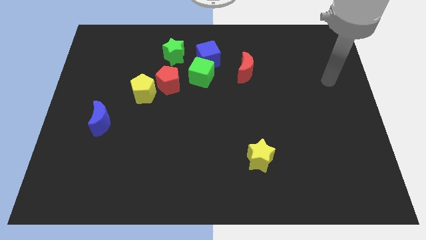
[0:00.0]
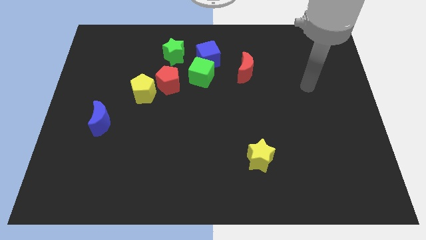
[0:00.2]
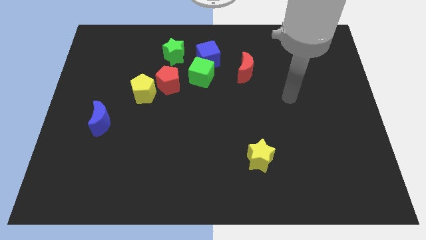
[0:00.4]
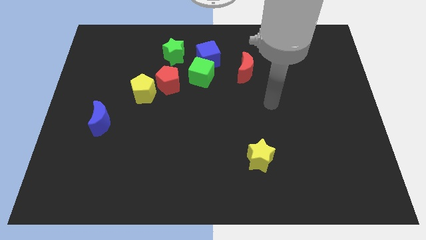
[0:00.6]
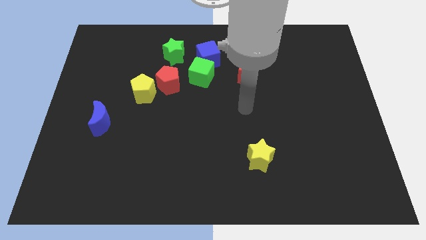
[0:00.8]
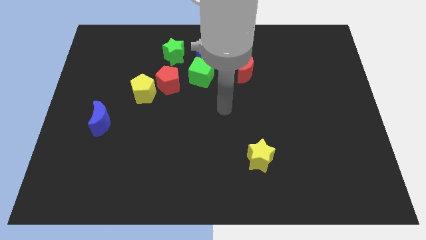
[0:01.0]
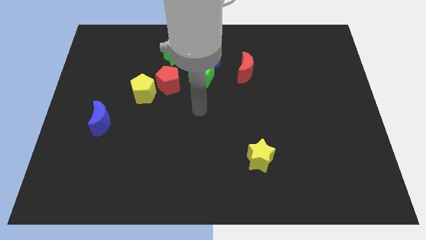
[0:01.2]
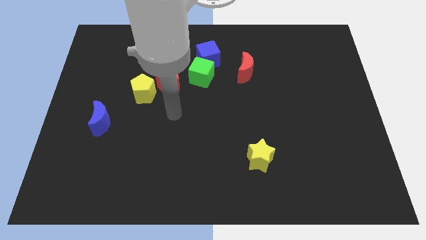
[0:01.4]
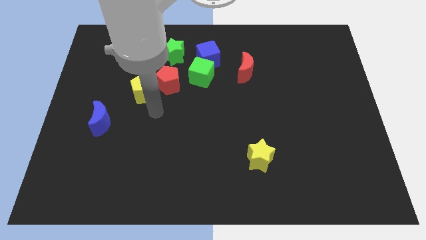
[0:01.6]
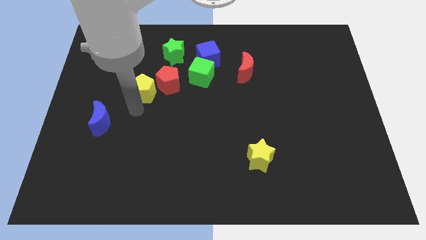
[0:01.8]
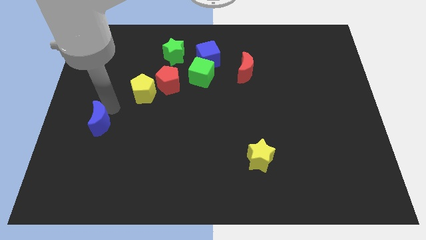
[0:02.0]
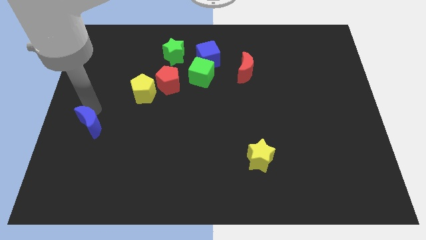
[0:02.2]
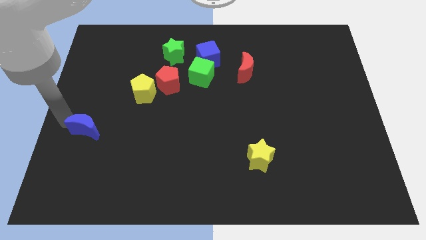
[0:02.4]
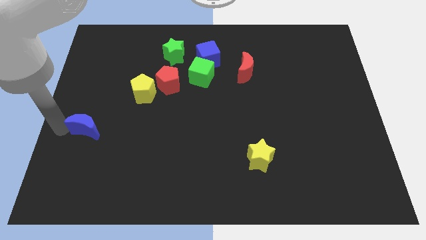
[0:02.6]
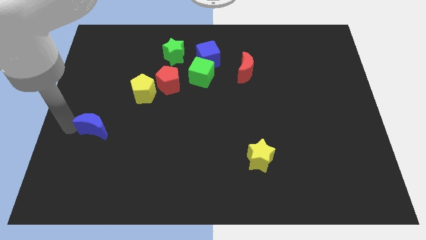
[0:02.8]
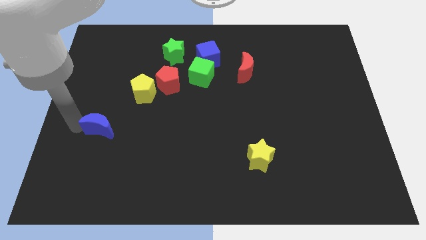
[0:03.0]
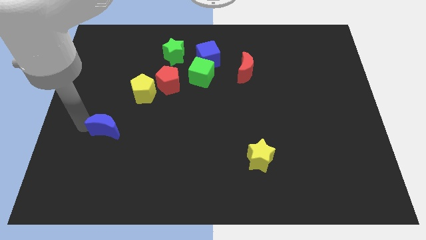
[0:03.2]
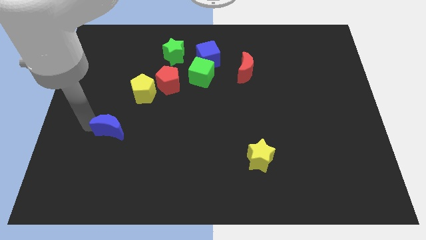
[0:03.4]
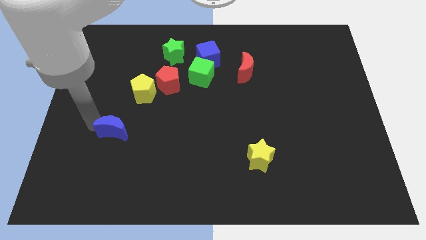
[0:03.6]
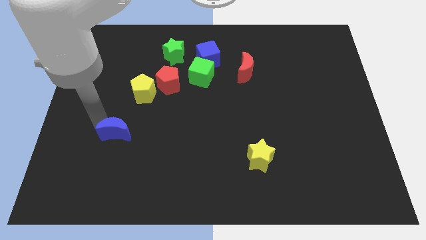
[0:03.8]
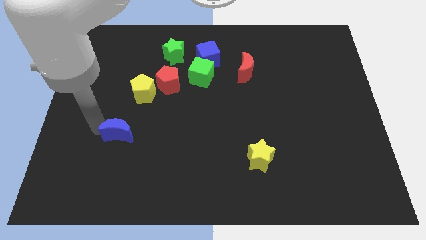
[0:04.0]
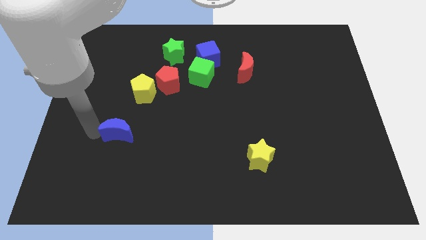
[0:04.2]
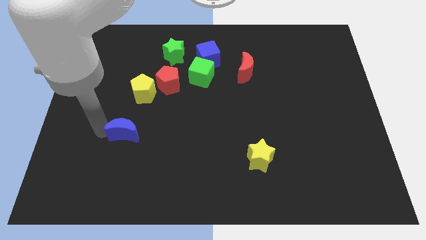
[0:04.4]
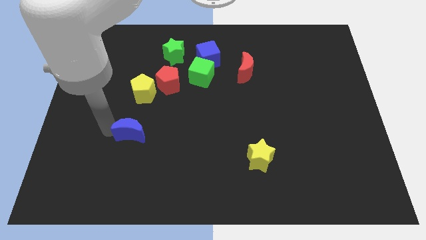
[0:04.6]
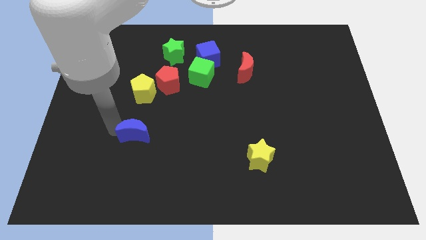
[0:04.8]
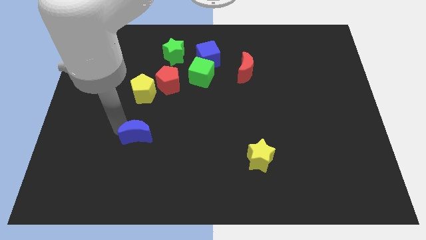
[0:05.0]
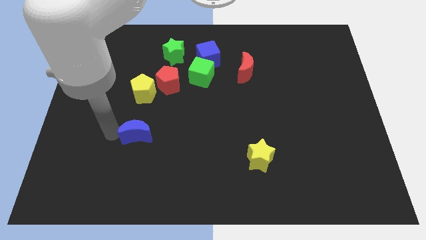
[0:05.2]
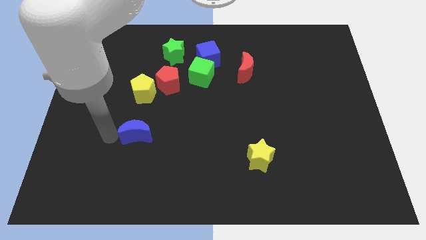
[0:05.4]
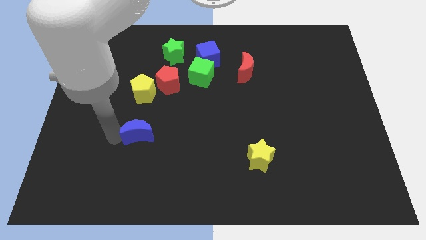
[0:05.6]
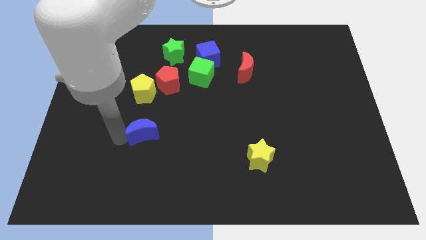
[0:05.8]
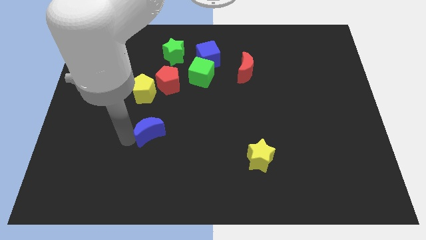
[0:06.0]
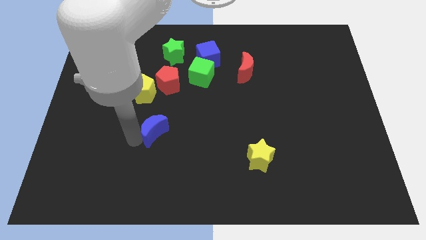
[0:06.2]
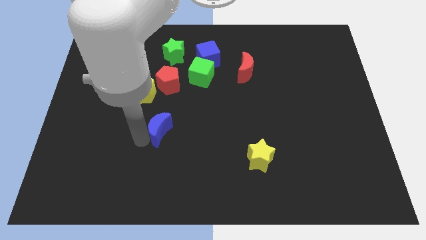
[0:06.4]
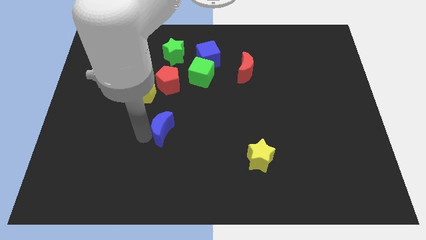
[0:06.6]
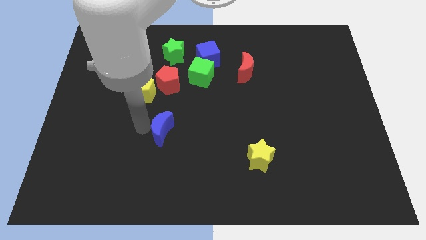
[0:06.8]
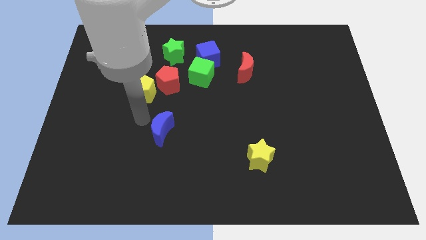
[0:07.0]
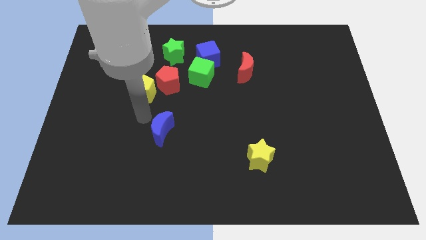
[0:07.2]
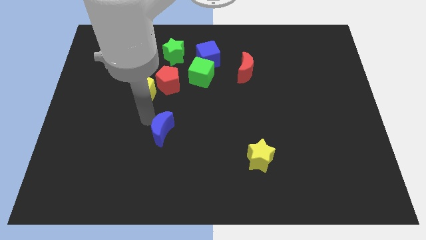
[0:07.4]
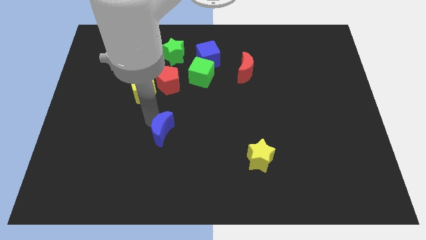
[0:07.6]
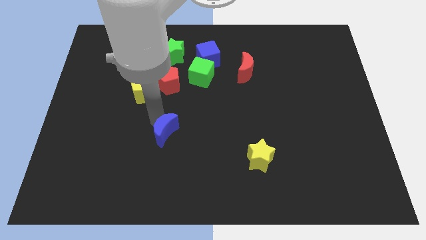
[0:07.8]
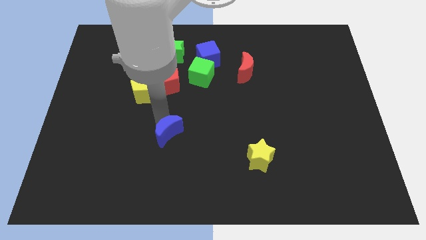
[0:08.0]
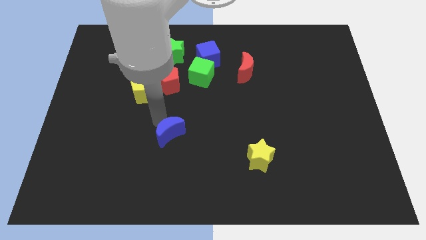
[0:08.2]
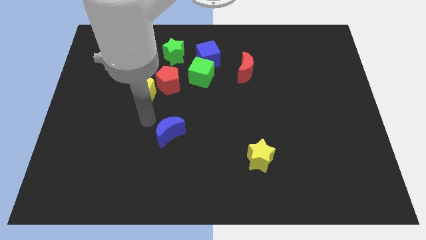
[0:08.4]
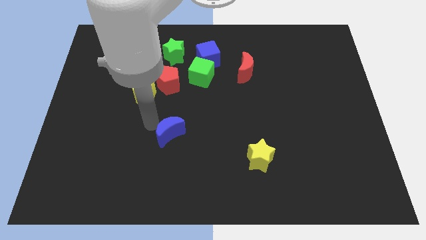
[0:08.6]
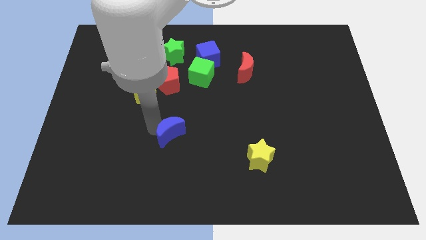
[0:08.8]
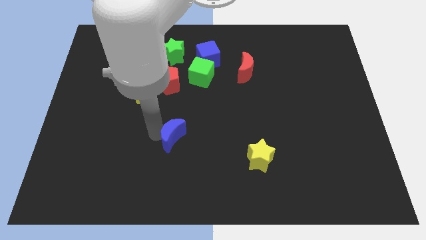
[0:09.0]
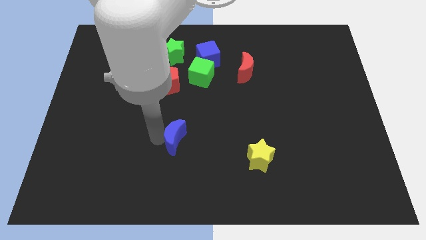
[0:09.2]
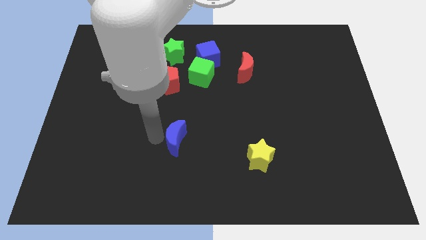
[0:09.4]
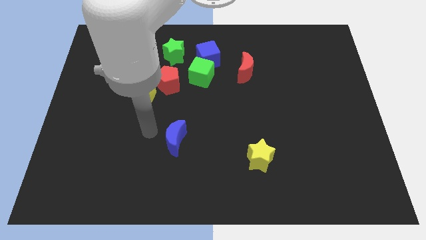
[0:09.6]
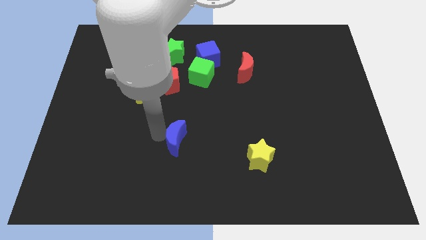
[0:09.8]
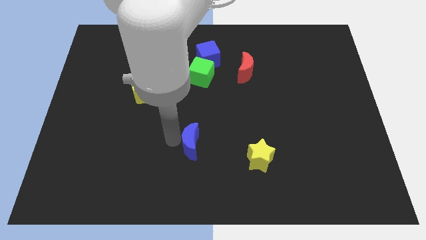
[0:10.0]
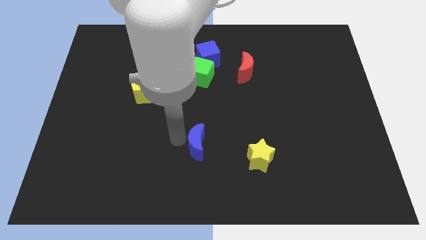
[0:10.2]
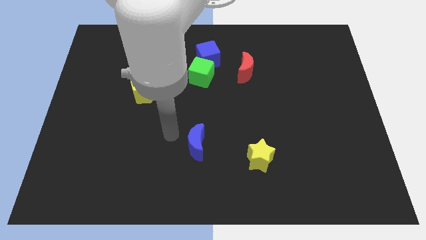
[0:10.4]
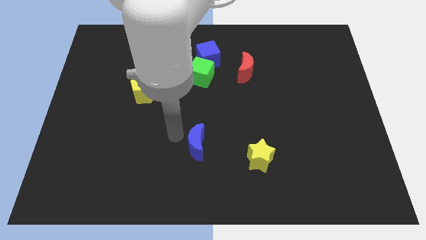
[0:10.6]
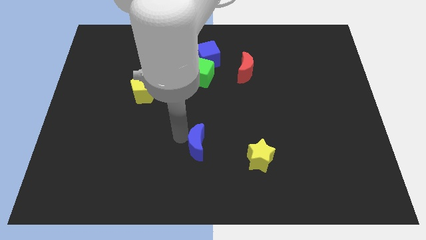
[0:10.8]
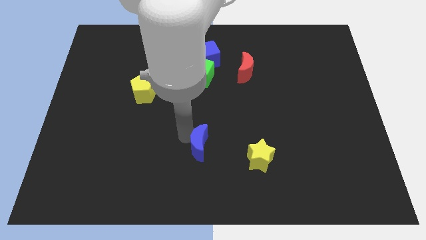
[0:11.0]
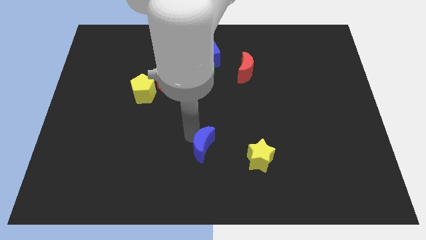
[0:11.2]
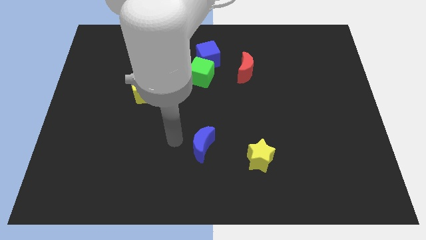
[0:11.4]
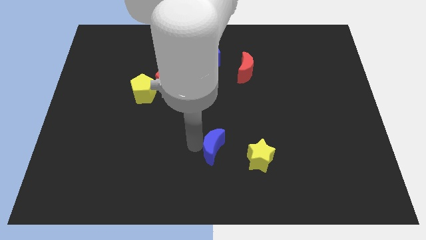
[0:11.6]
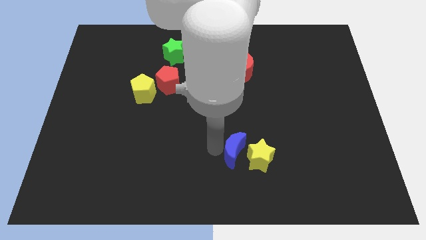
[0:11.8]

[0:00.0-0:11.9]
push the blue moon towards the yellow star

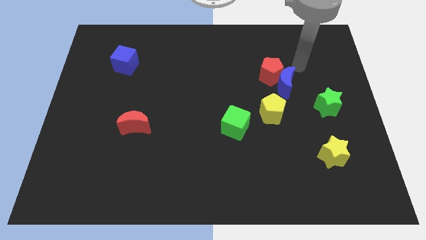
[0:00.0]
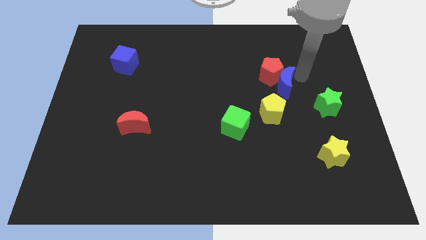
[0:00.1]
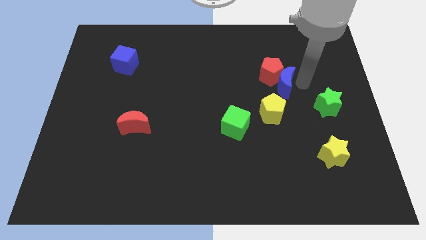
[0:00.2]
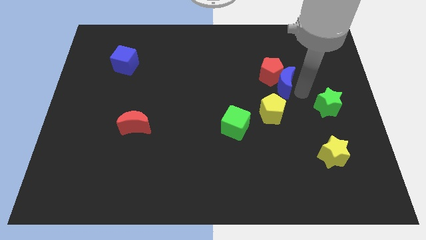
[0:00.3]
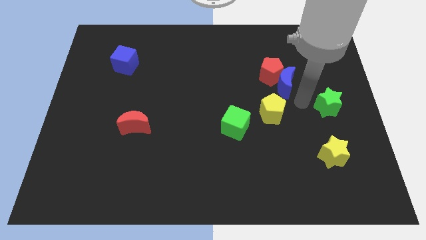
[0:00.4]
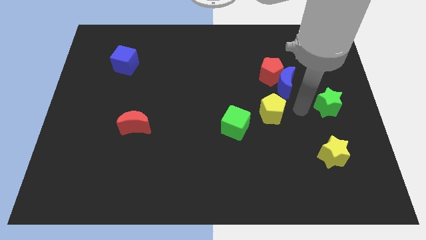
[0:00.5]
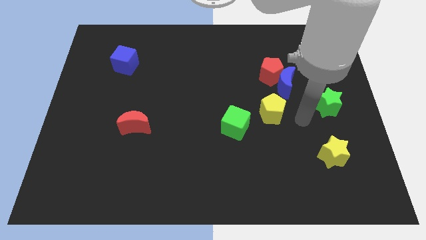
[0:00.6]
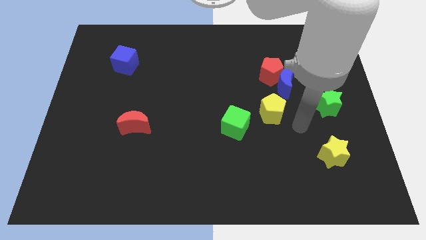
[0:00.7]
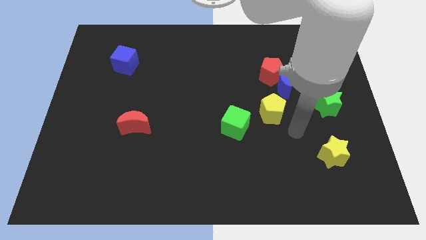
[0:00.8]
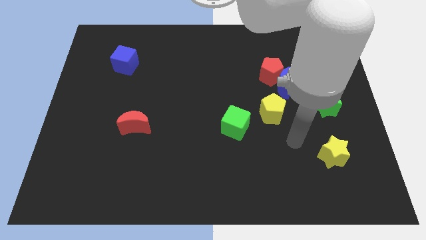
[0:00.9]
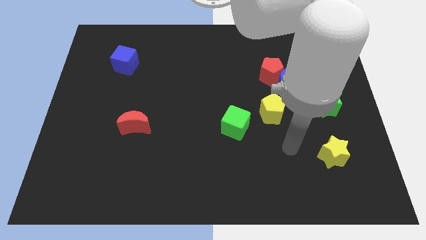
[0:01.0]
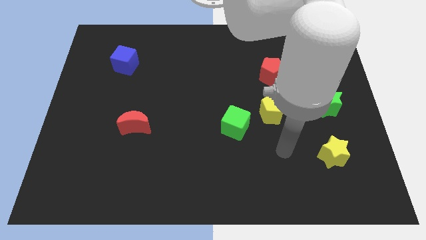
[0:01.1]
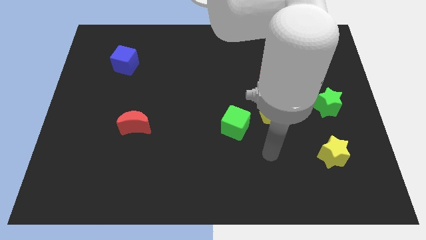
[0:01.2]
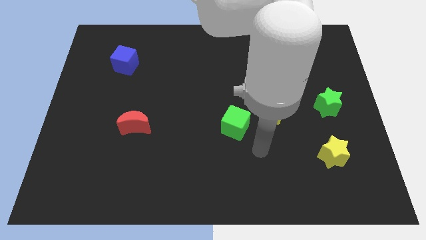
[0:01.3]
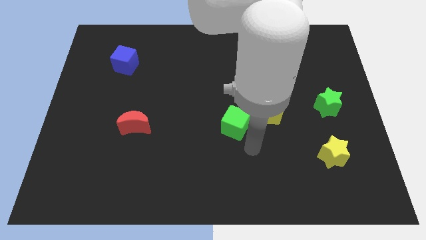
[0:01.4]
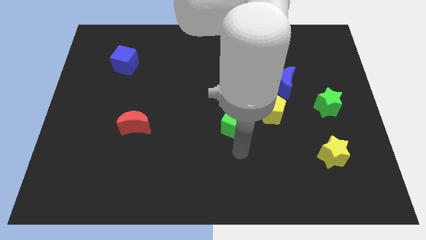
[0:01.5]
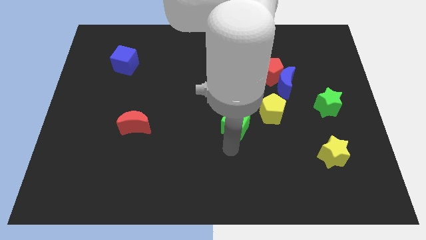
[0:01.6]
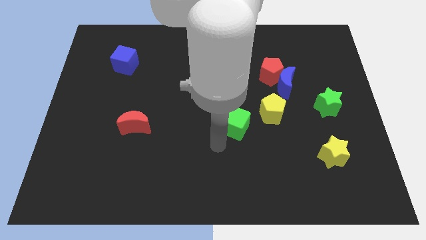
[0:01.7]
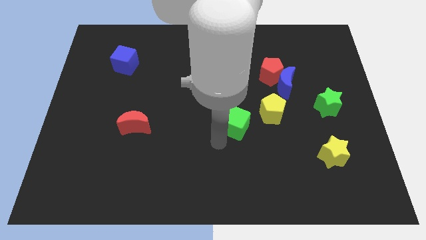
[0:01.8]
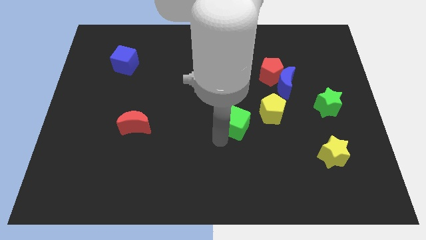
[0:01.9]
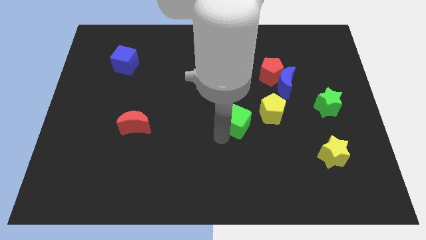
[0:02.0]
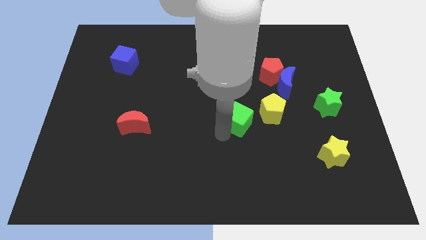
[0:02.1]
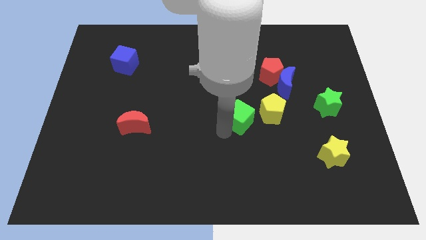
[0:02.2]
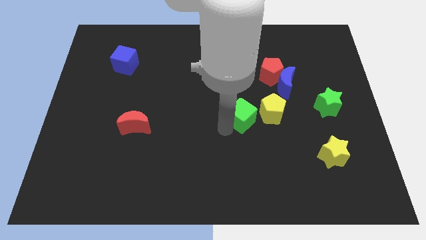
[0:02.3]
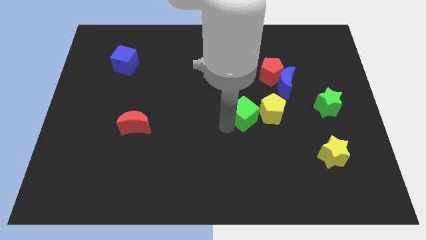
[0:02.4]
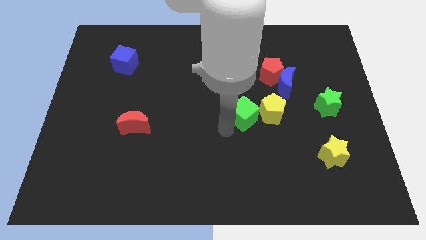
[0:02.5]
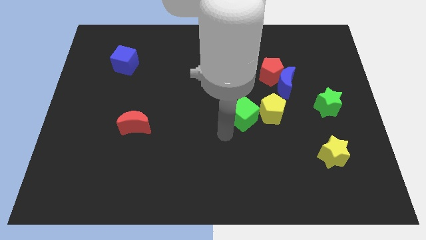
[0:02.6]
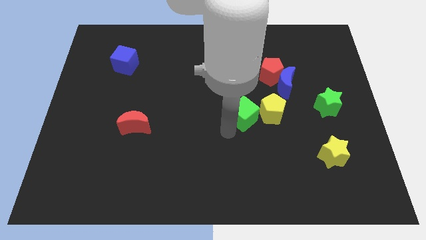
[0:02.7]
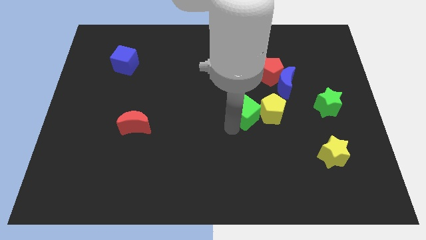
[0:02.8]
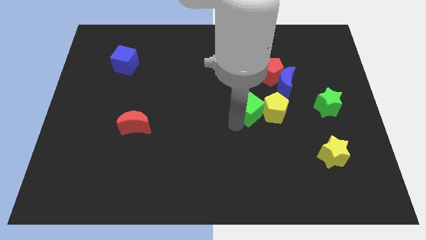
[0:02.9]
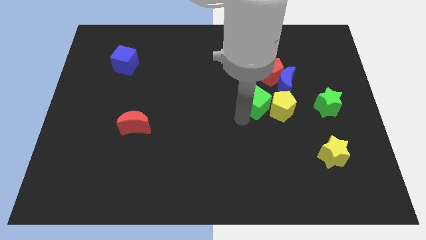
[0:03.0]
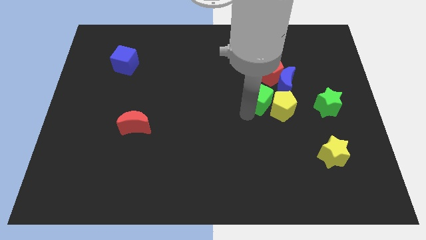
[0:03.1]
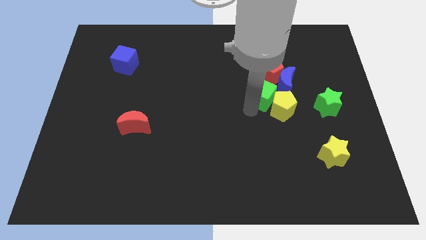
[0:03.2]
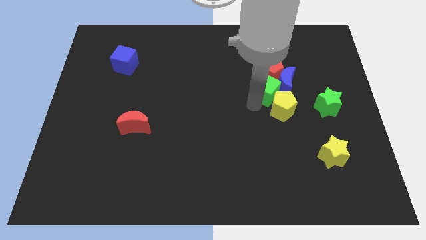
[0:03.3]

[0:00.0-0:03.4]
move the green cube next to the blue moon
